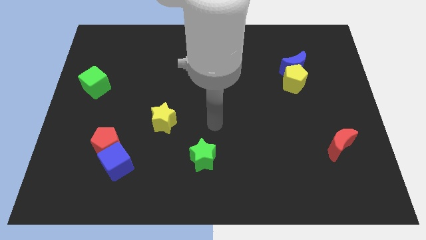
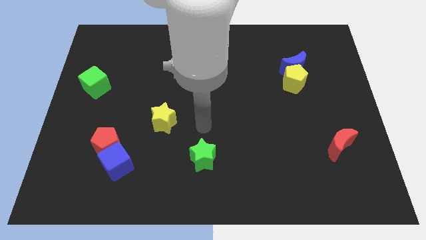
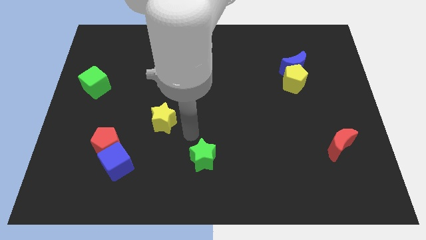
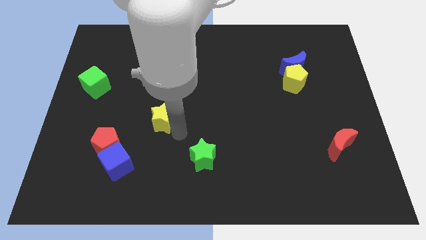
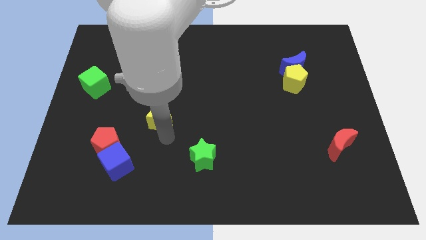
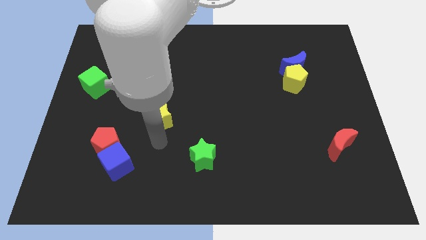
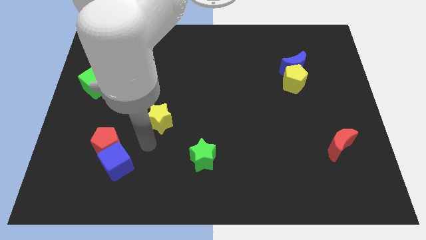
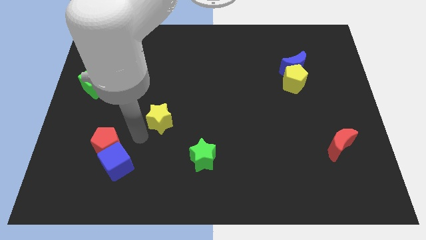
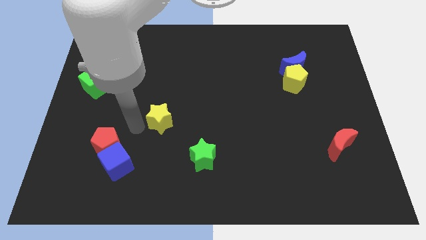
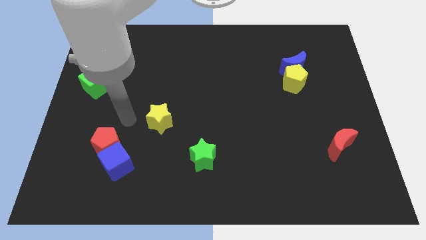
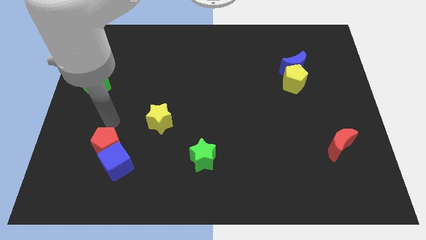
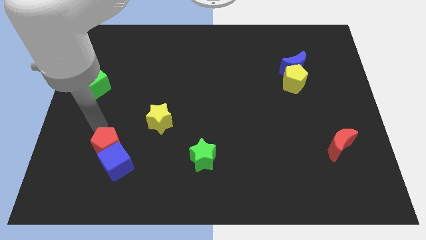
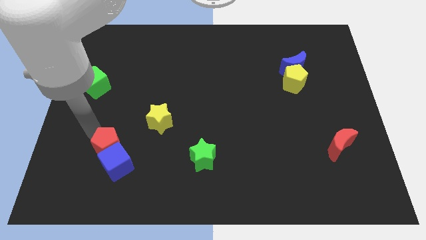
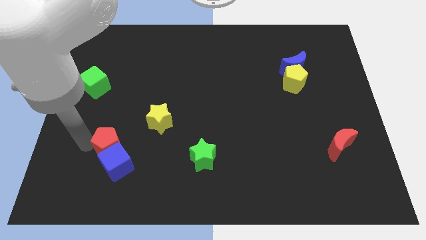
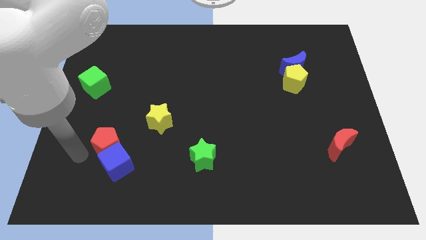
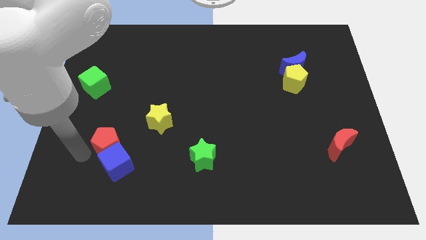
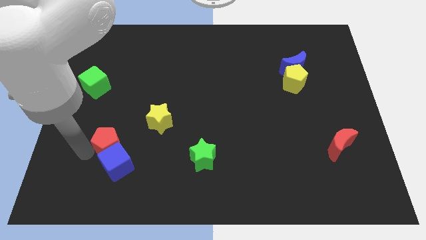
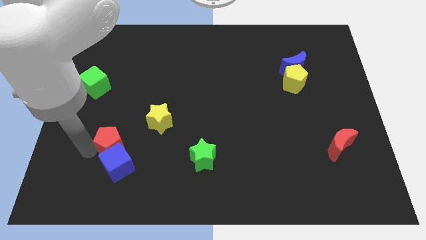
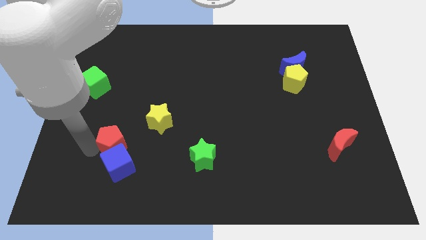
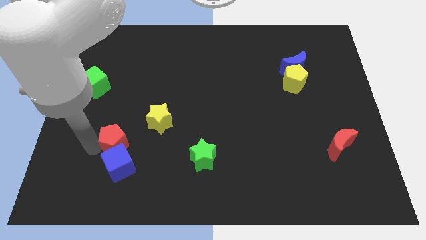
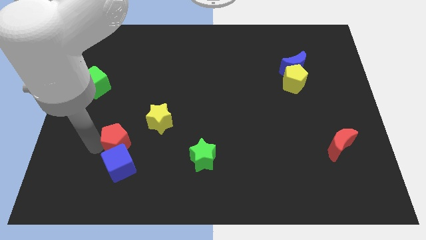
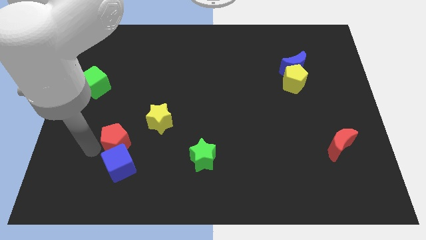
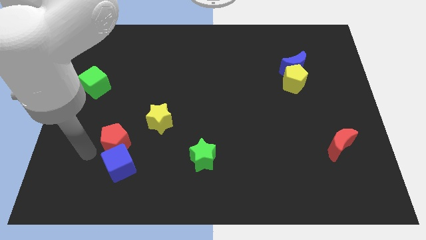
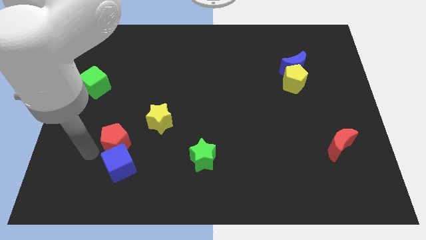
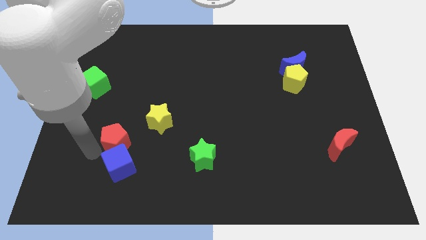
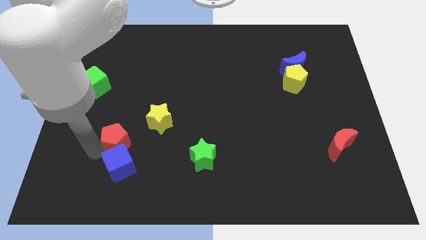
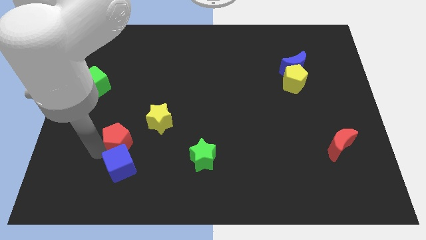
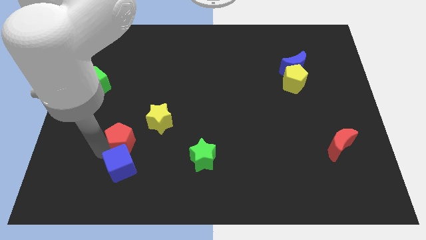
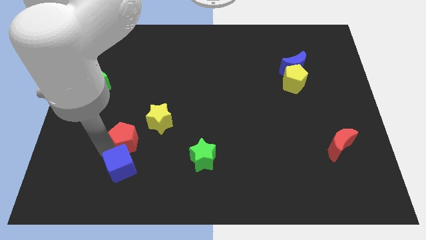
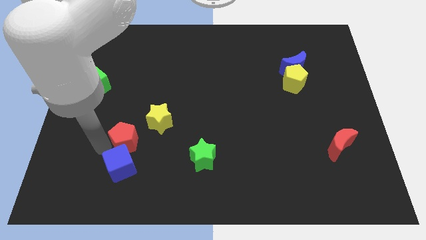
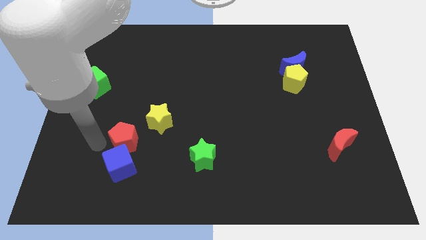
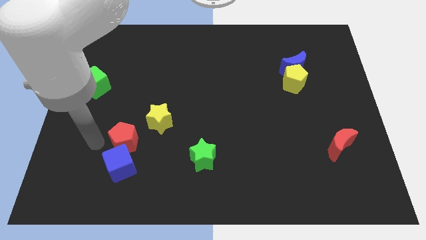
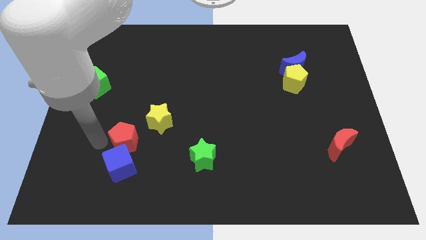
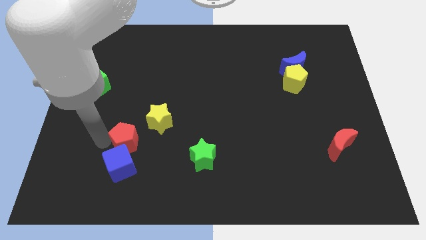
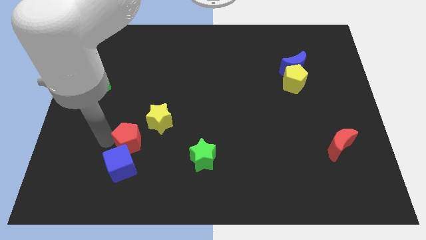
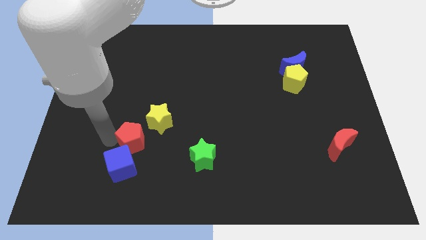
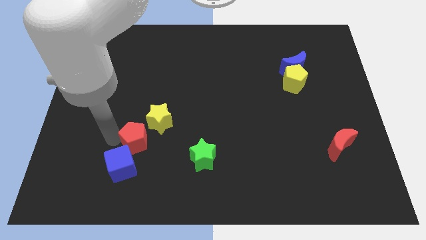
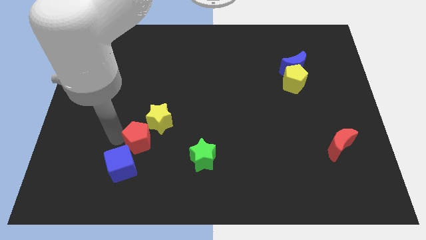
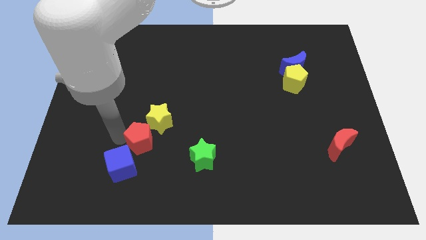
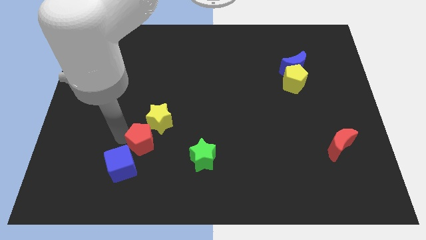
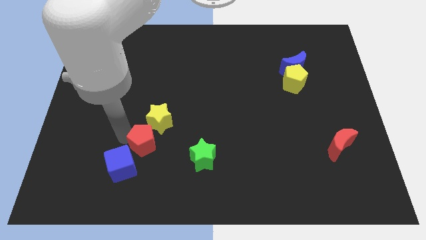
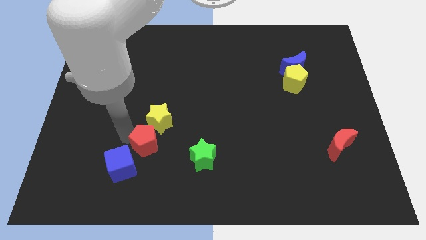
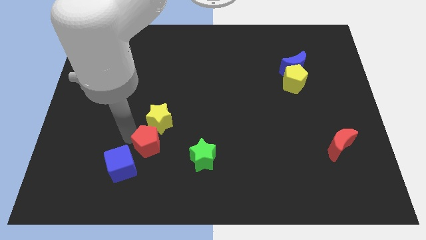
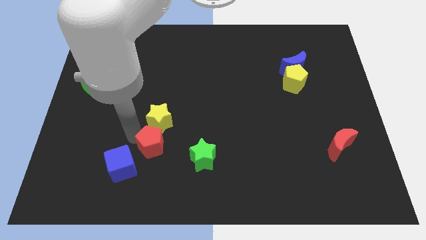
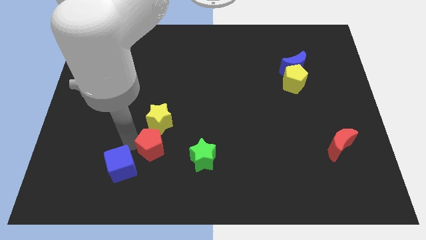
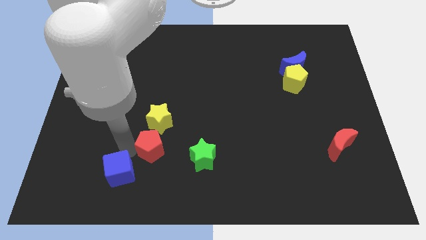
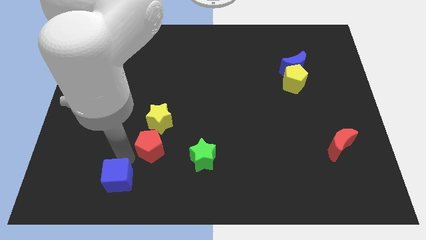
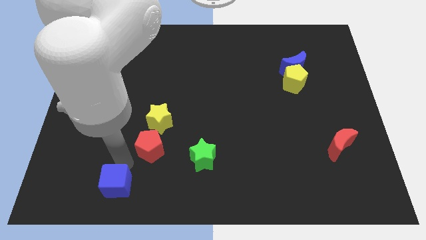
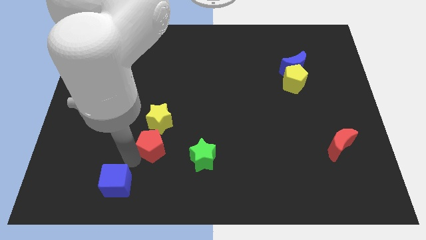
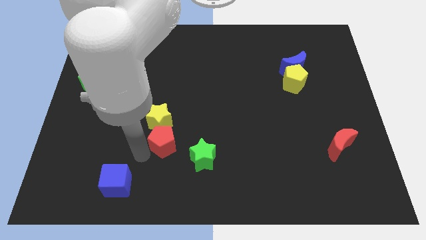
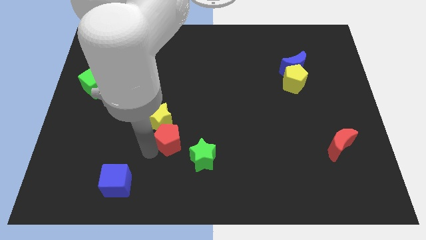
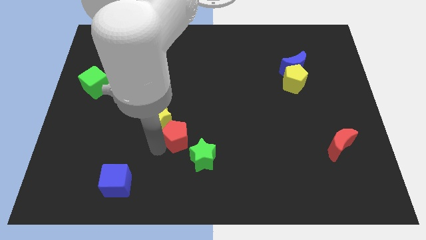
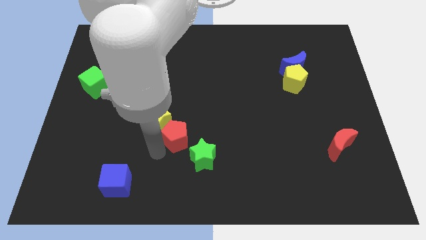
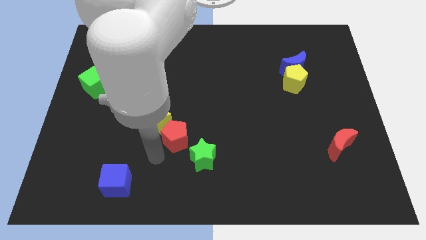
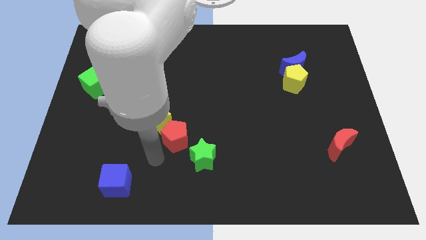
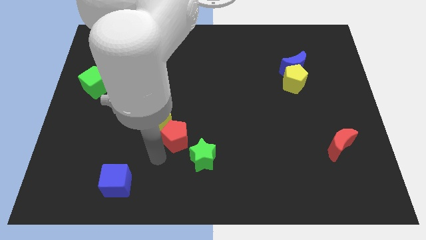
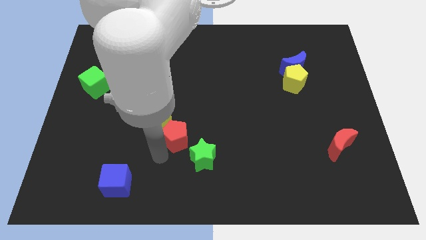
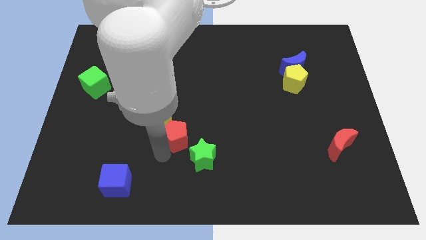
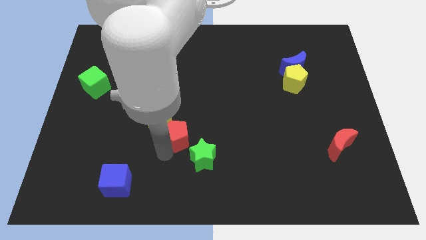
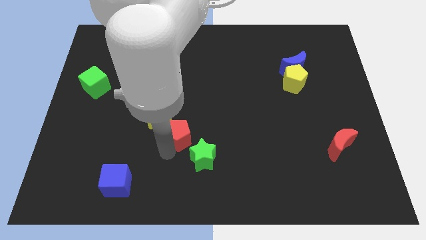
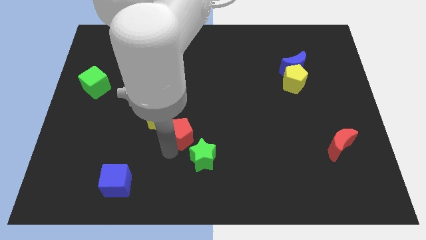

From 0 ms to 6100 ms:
slide the red pentagon to the center

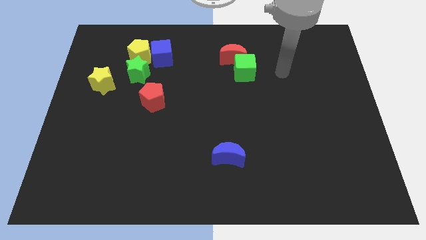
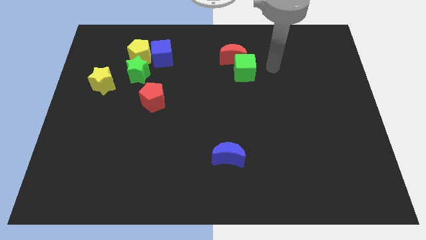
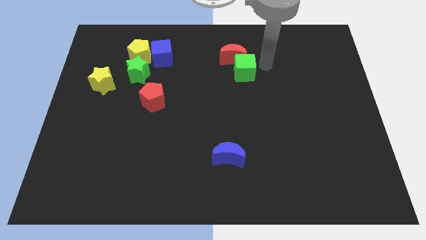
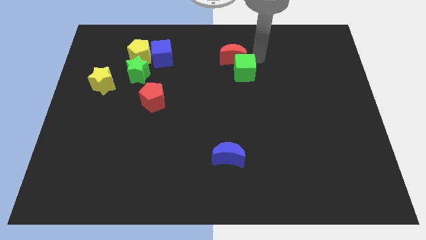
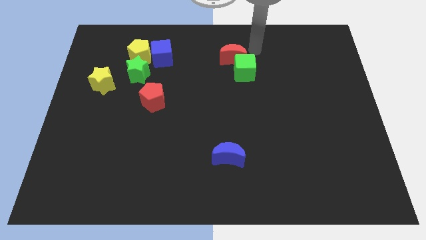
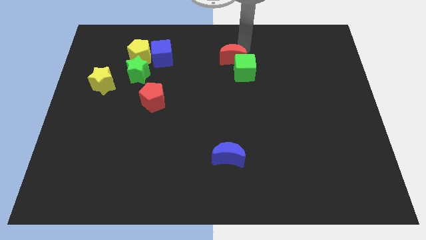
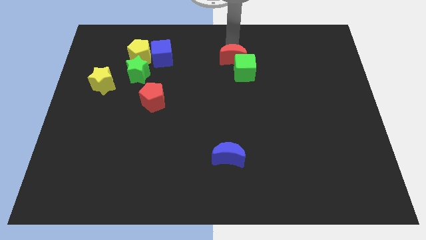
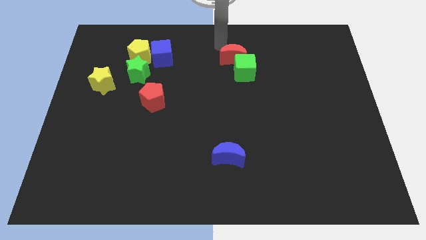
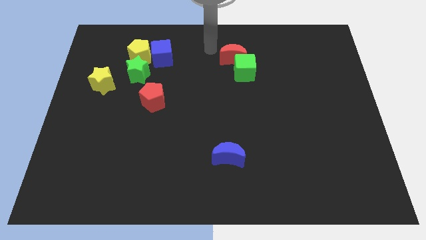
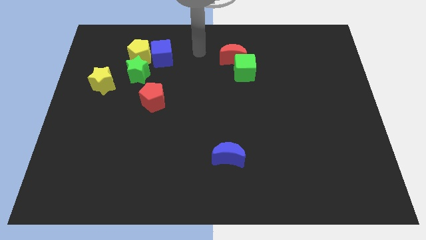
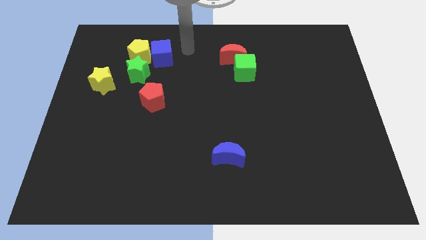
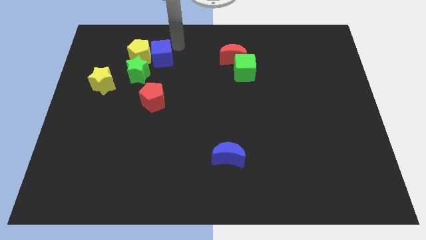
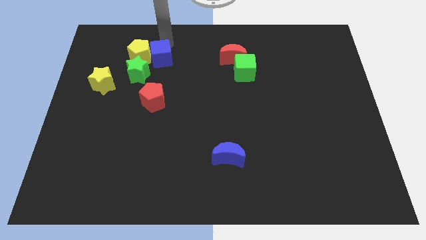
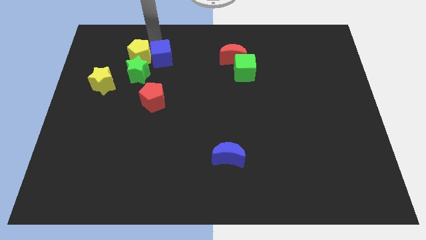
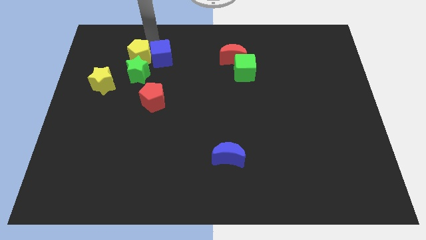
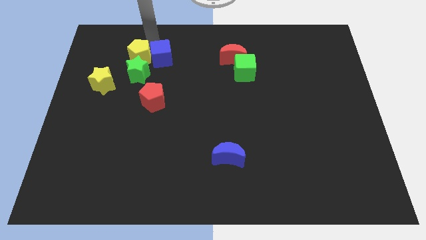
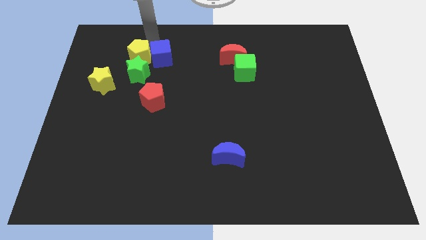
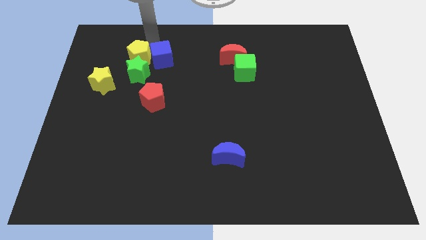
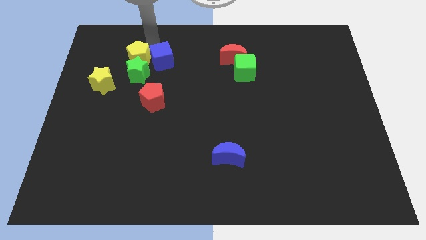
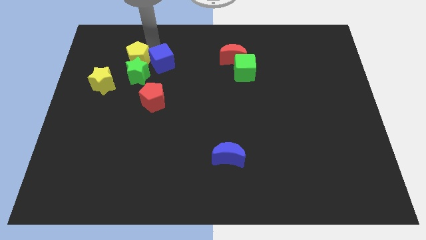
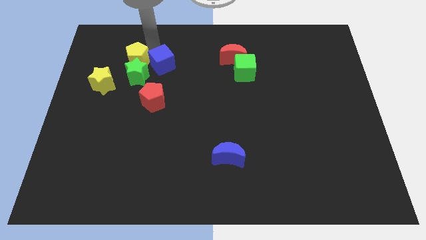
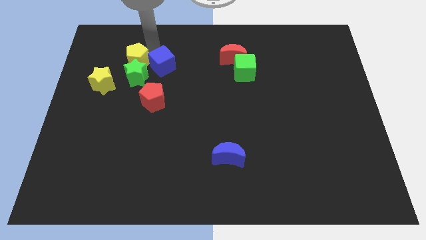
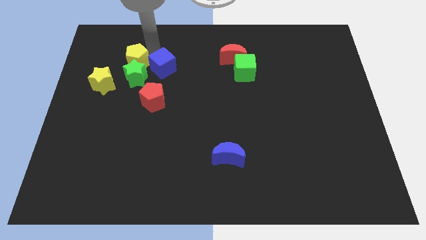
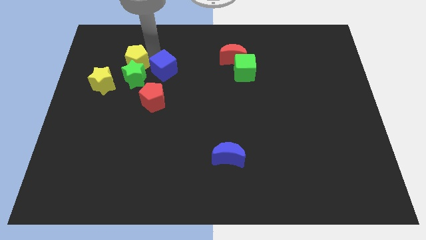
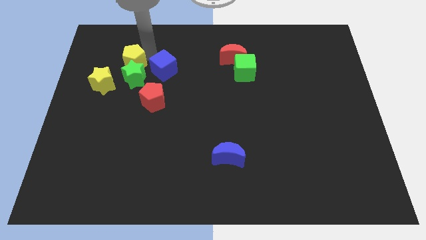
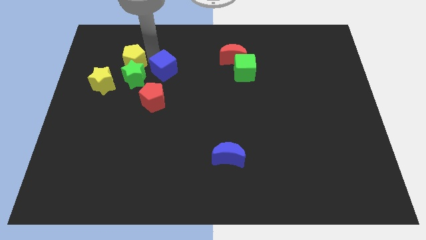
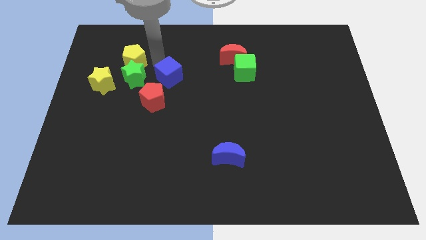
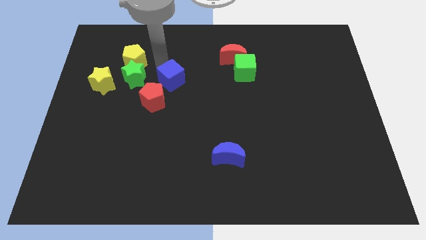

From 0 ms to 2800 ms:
push the blue cube to the center of the board
